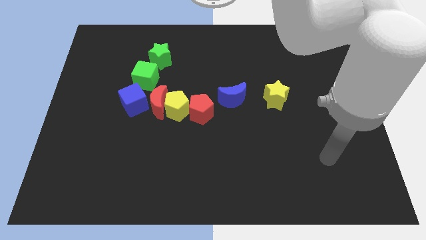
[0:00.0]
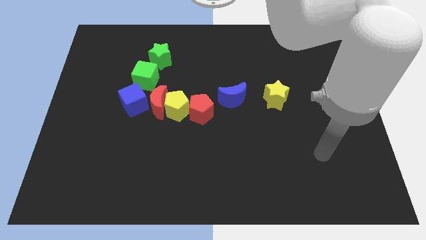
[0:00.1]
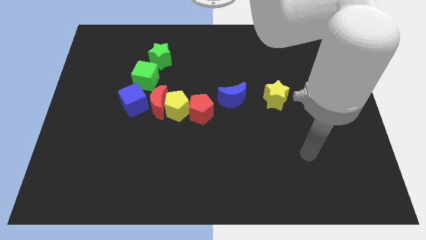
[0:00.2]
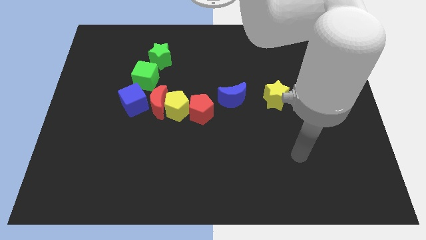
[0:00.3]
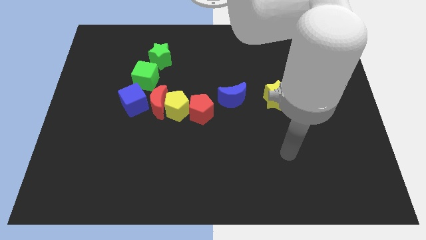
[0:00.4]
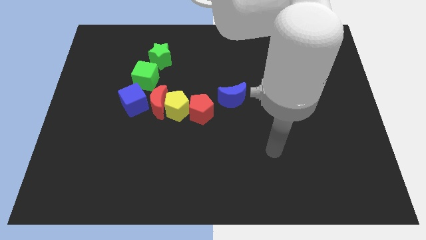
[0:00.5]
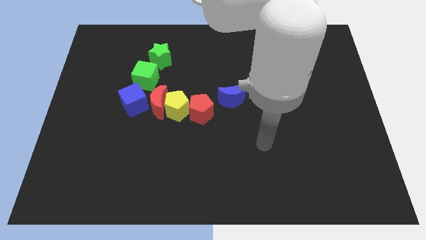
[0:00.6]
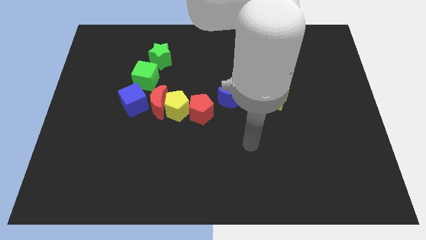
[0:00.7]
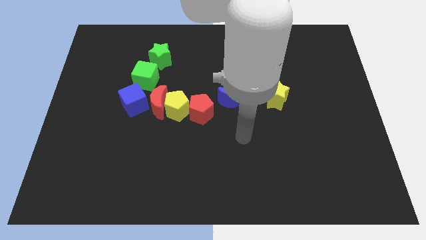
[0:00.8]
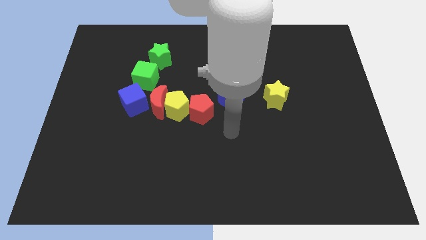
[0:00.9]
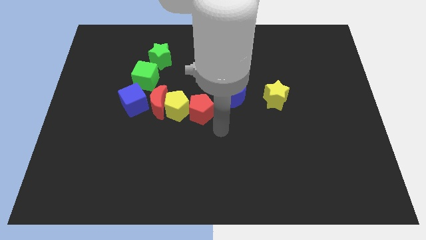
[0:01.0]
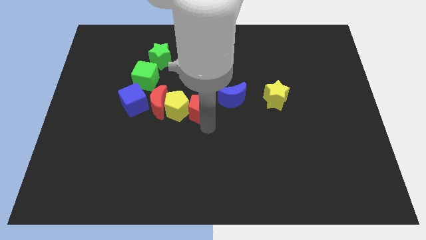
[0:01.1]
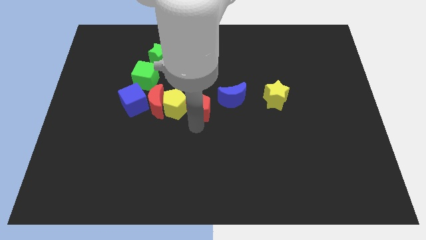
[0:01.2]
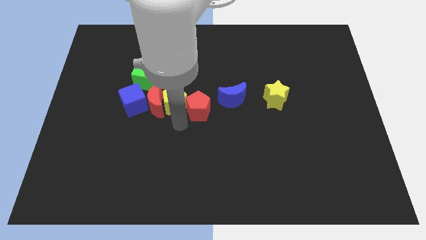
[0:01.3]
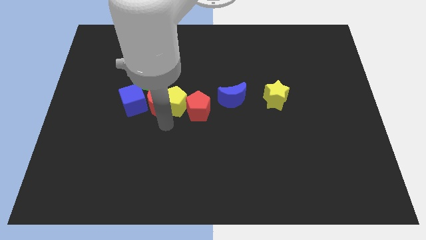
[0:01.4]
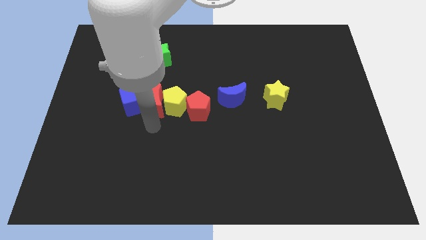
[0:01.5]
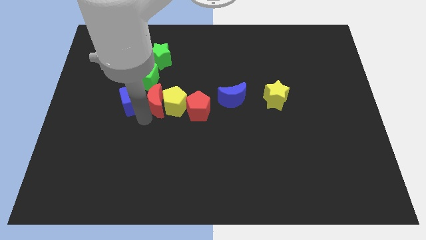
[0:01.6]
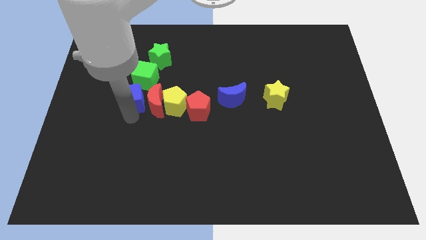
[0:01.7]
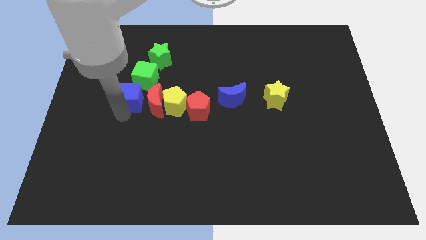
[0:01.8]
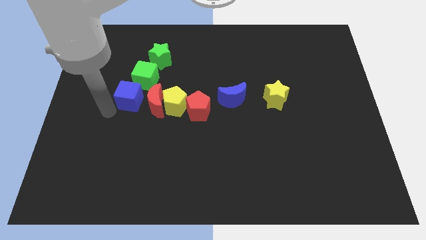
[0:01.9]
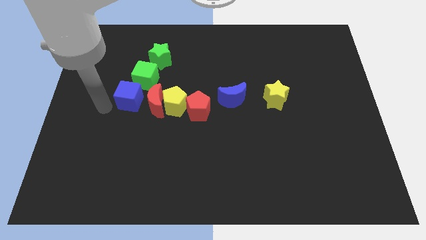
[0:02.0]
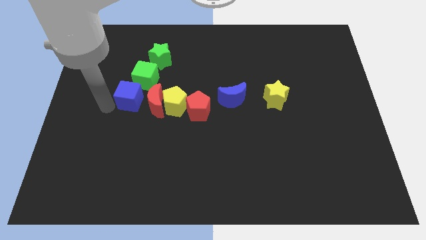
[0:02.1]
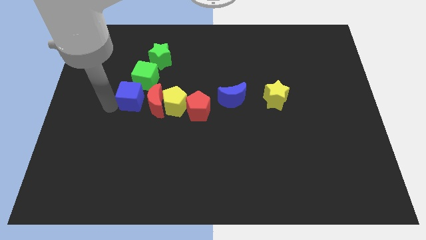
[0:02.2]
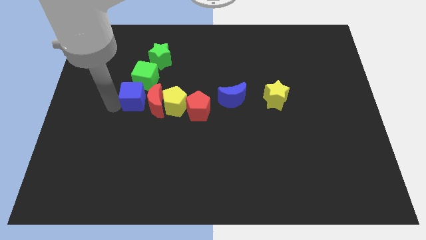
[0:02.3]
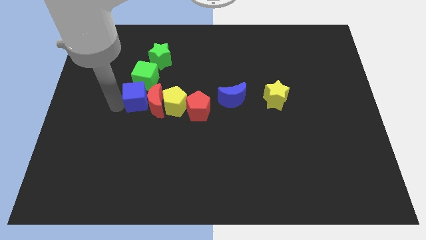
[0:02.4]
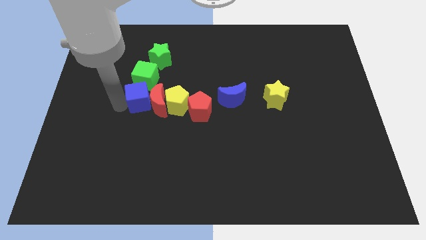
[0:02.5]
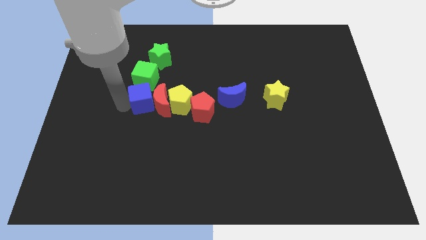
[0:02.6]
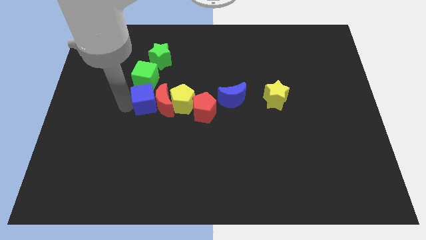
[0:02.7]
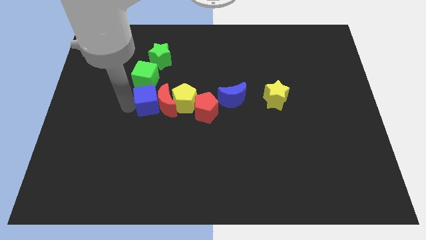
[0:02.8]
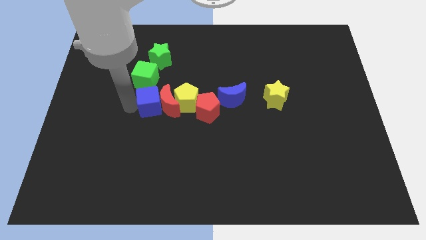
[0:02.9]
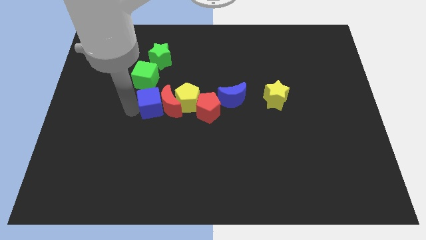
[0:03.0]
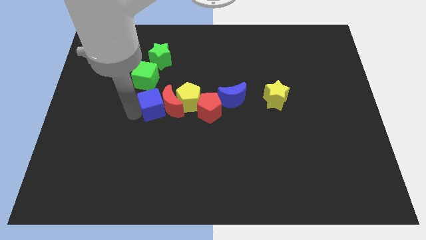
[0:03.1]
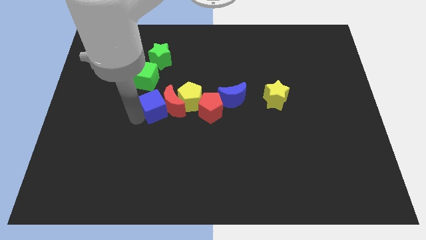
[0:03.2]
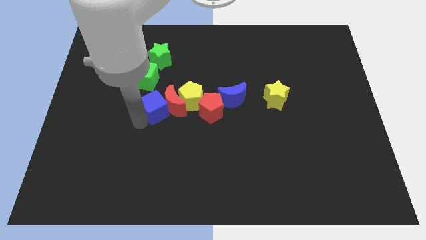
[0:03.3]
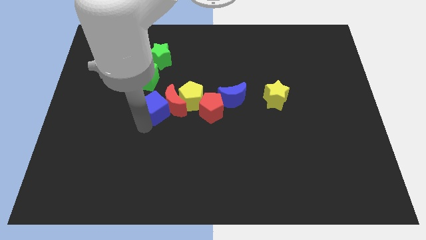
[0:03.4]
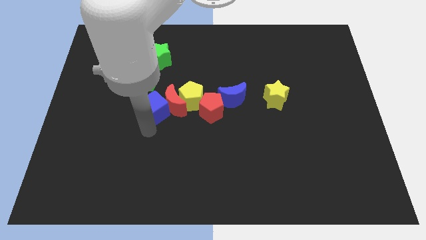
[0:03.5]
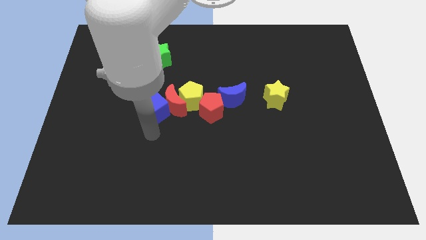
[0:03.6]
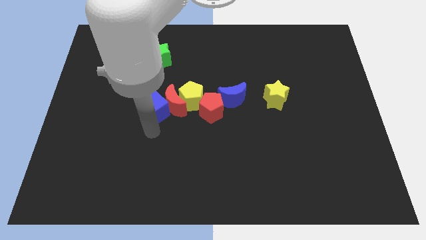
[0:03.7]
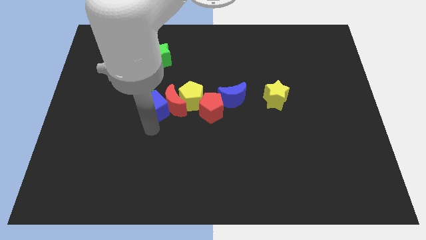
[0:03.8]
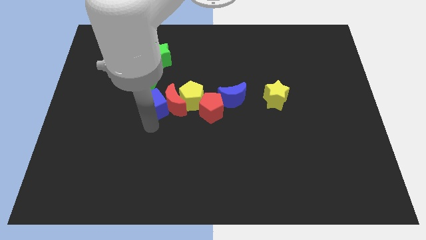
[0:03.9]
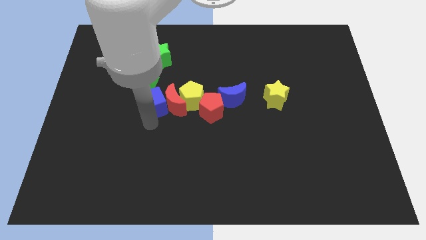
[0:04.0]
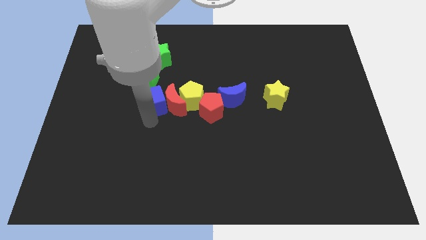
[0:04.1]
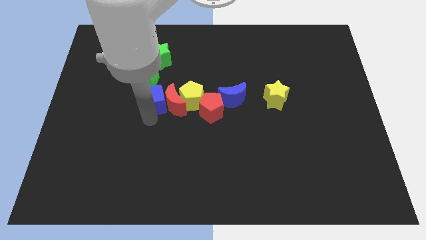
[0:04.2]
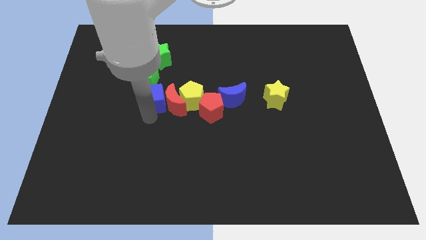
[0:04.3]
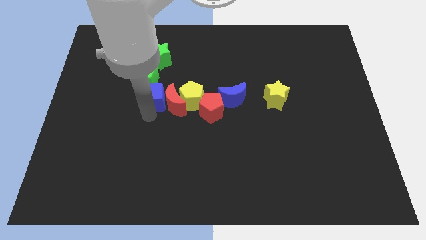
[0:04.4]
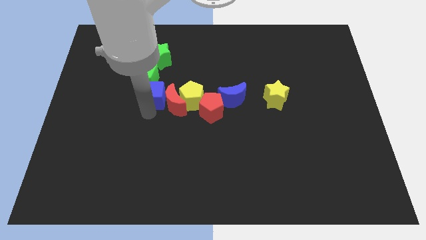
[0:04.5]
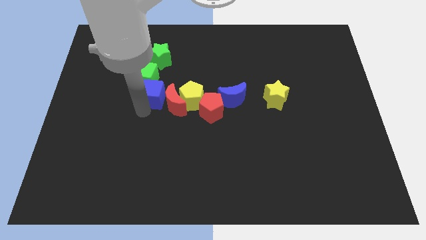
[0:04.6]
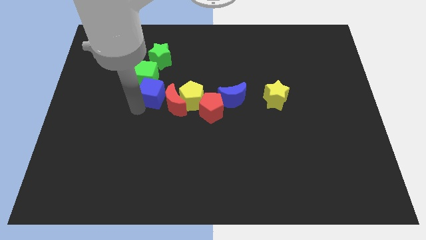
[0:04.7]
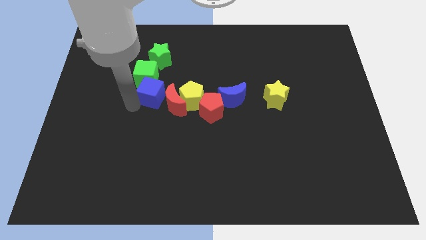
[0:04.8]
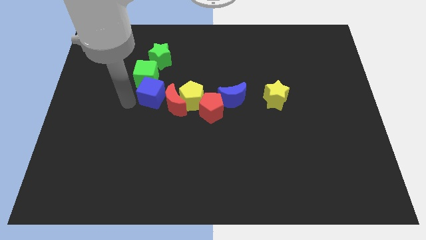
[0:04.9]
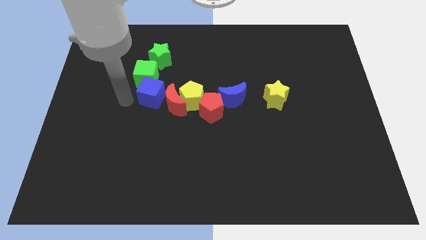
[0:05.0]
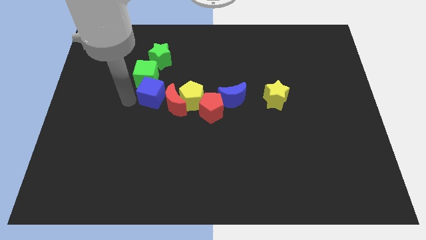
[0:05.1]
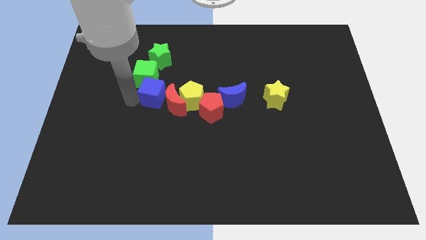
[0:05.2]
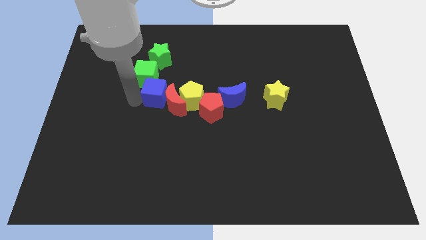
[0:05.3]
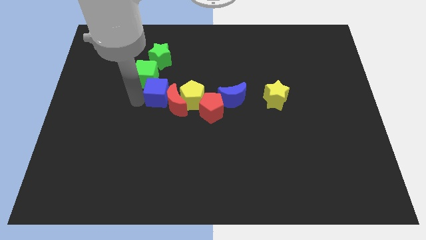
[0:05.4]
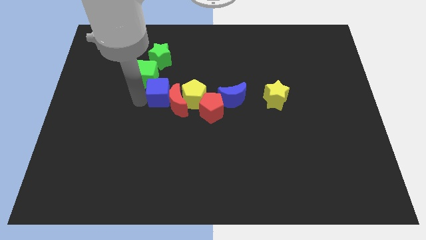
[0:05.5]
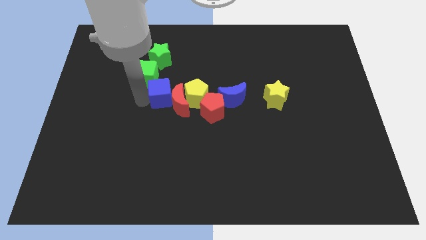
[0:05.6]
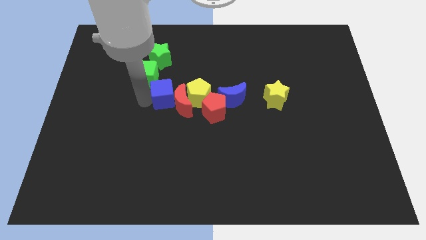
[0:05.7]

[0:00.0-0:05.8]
move the blue cube a little bit right

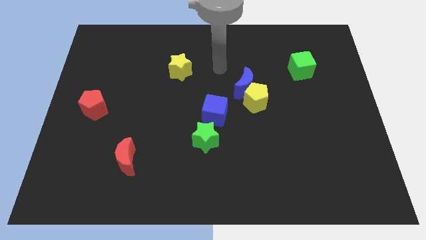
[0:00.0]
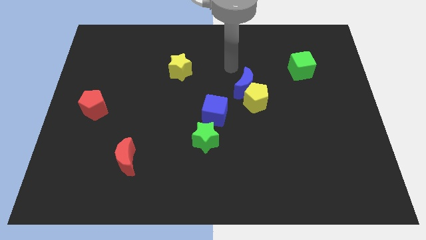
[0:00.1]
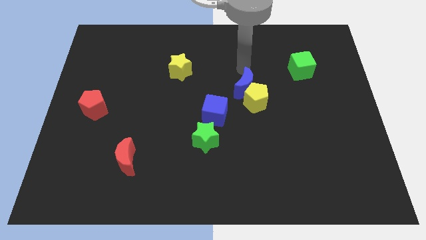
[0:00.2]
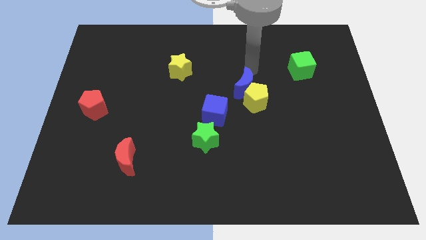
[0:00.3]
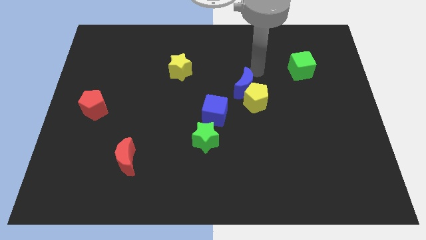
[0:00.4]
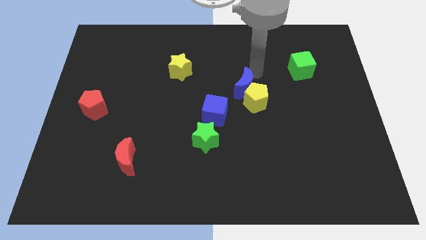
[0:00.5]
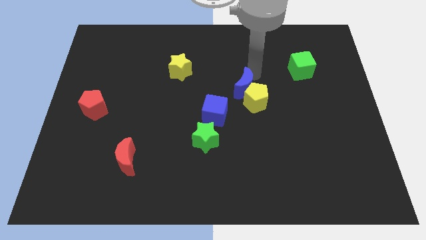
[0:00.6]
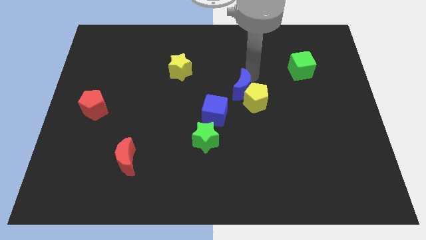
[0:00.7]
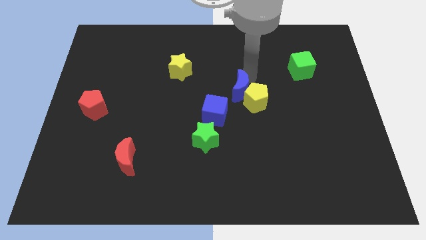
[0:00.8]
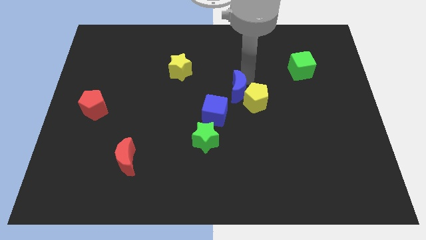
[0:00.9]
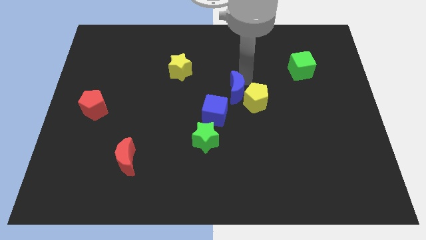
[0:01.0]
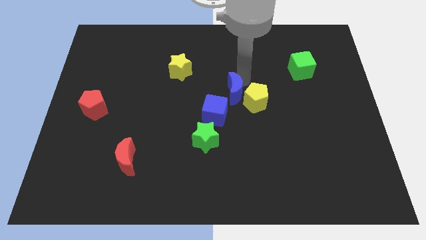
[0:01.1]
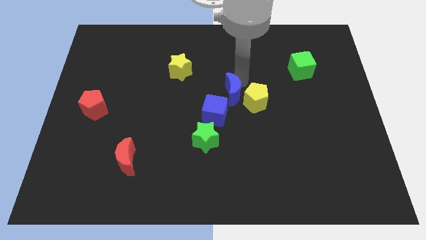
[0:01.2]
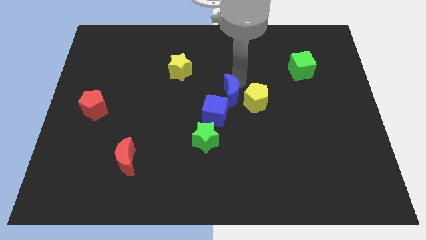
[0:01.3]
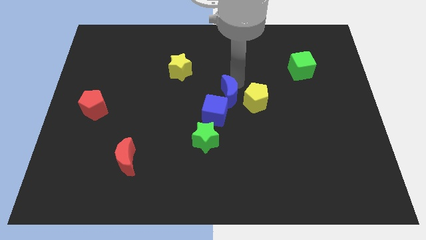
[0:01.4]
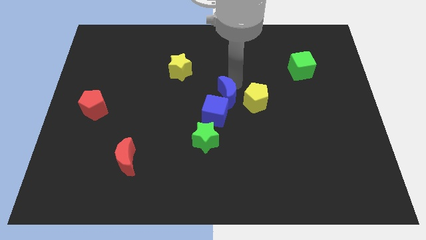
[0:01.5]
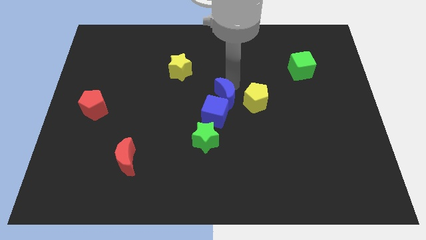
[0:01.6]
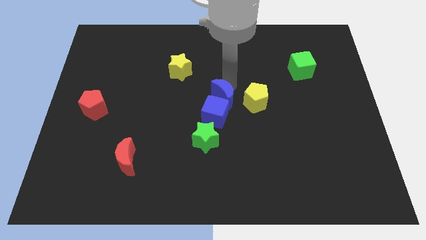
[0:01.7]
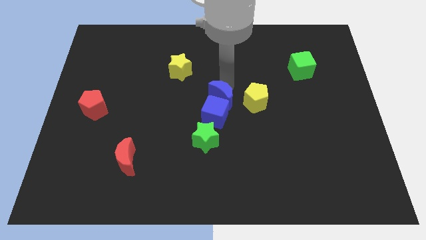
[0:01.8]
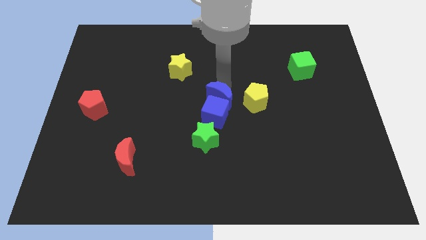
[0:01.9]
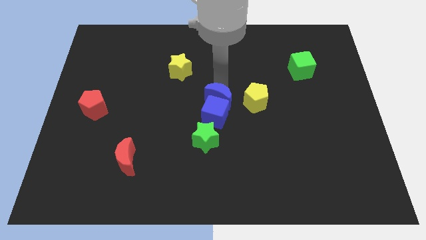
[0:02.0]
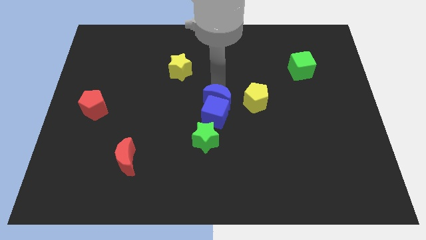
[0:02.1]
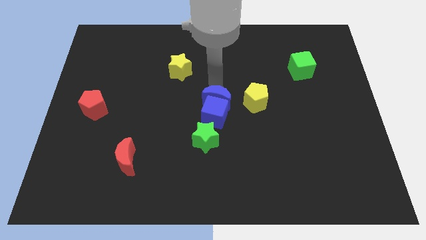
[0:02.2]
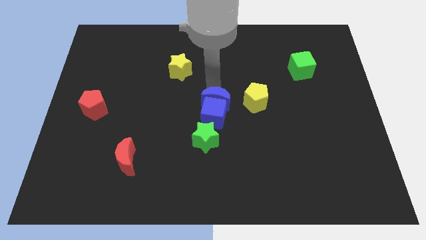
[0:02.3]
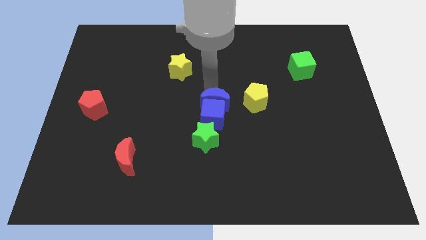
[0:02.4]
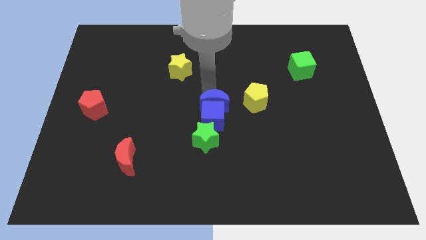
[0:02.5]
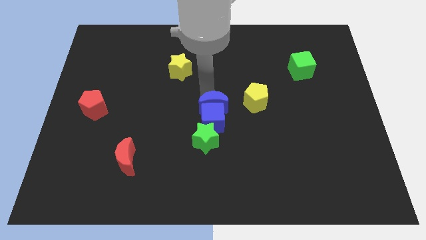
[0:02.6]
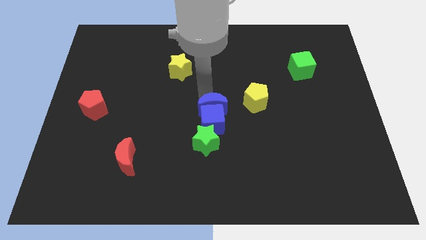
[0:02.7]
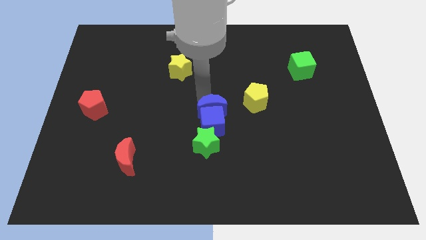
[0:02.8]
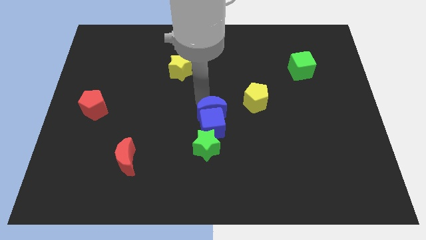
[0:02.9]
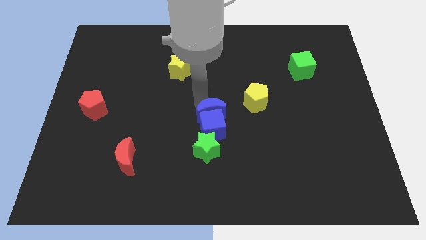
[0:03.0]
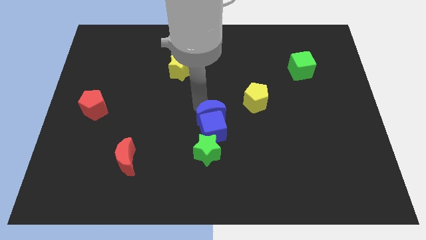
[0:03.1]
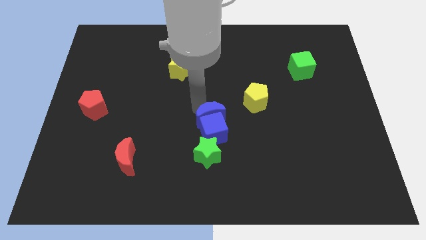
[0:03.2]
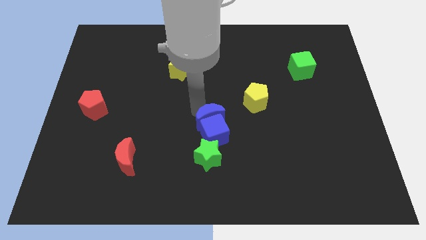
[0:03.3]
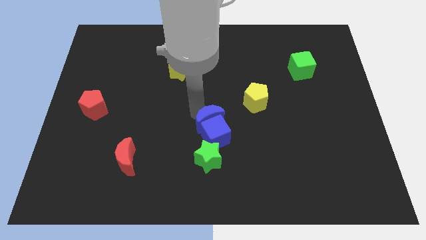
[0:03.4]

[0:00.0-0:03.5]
slide the blue moon a bit down
